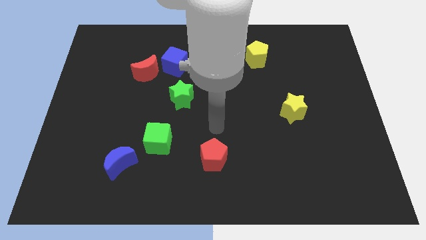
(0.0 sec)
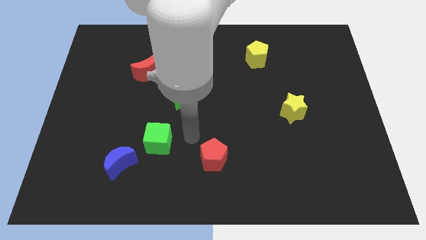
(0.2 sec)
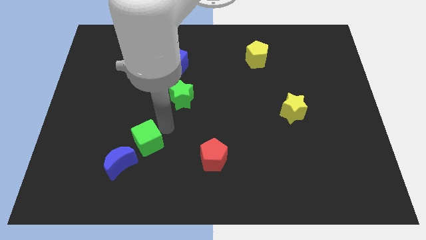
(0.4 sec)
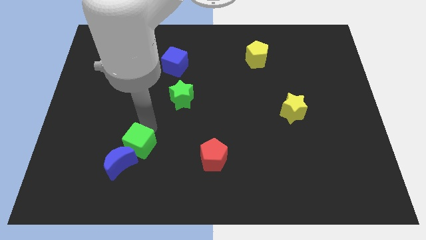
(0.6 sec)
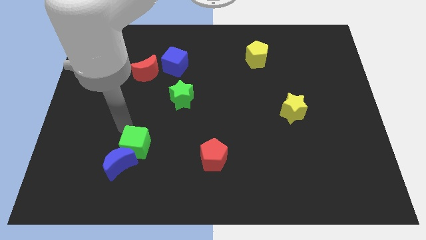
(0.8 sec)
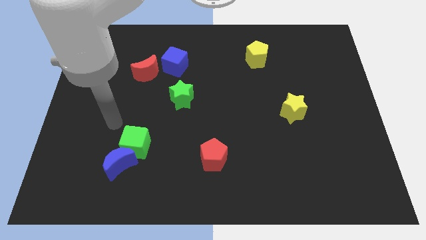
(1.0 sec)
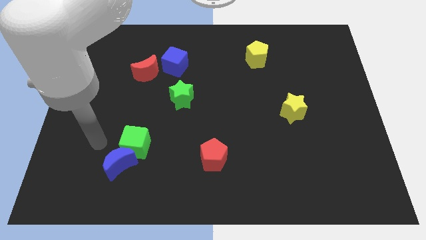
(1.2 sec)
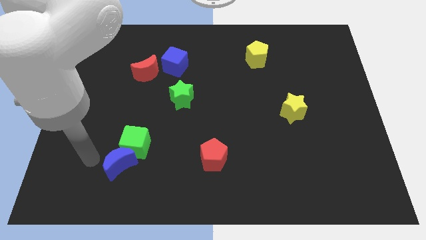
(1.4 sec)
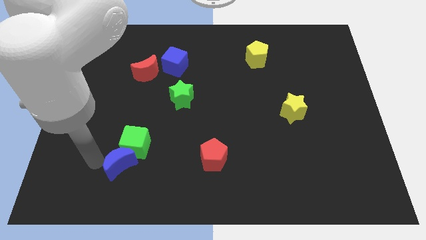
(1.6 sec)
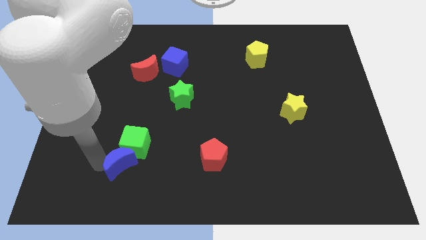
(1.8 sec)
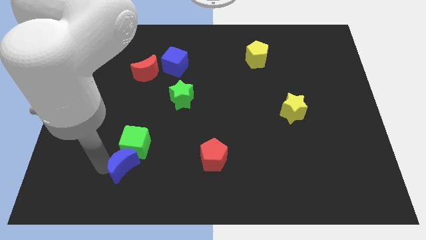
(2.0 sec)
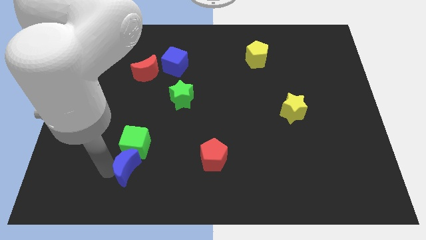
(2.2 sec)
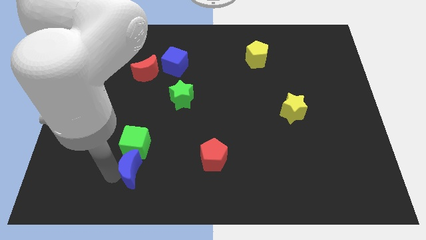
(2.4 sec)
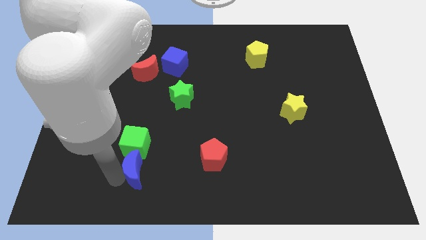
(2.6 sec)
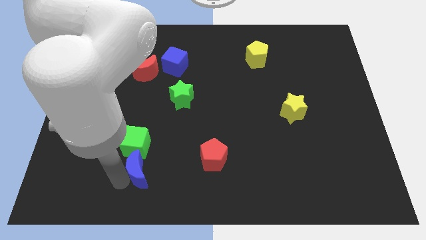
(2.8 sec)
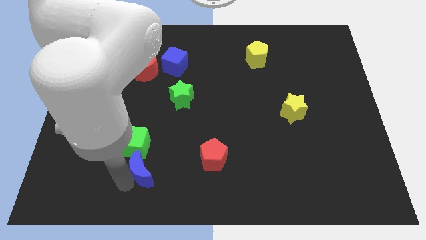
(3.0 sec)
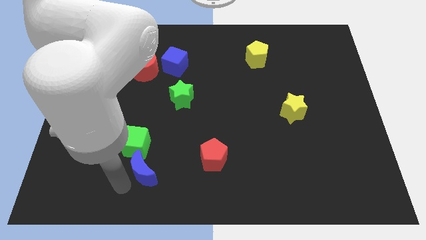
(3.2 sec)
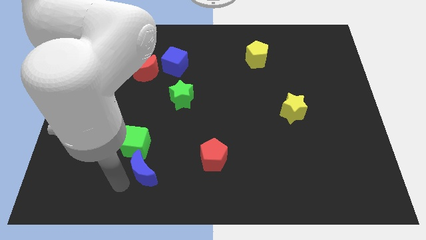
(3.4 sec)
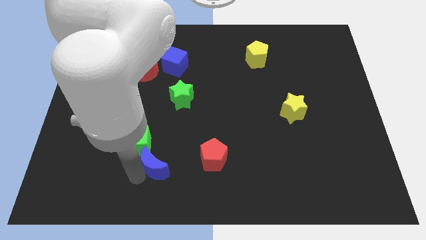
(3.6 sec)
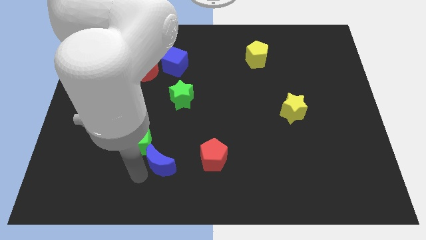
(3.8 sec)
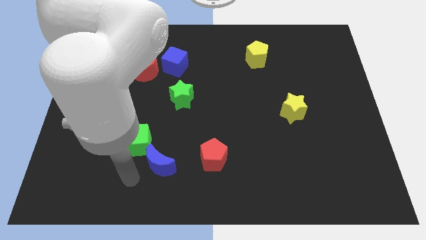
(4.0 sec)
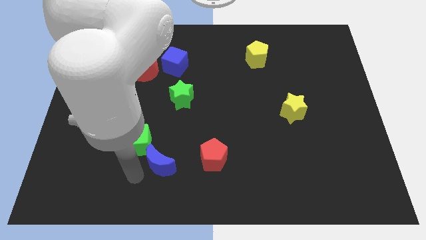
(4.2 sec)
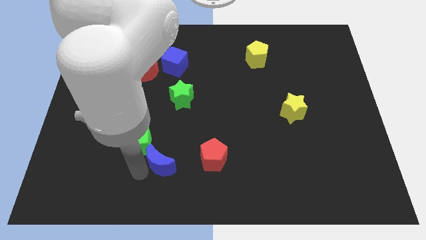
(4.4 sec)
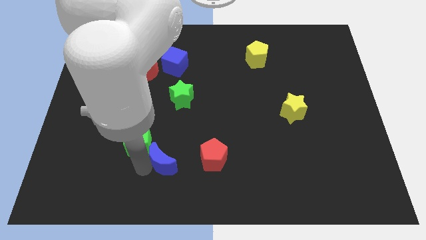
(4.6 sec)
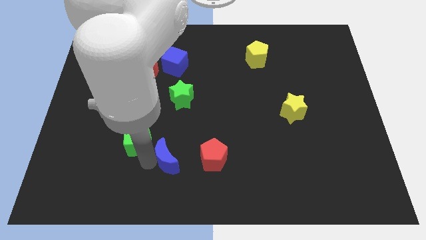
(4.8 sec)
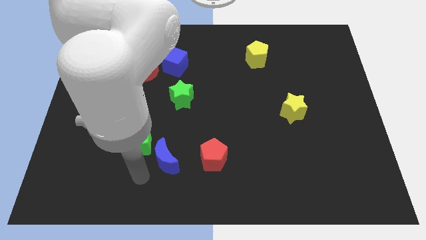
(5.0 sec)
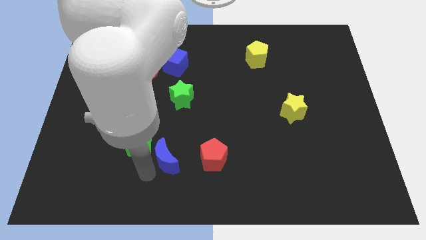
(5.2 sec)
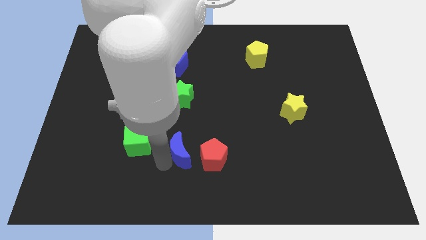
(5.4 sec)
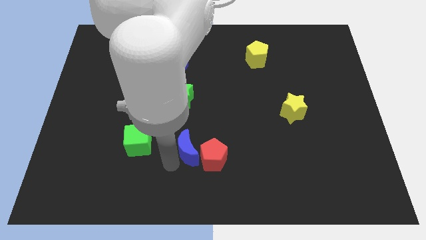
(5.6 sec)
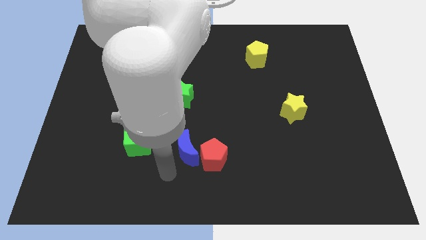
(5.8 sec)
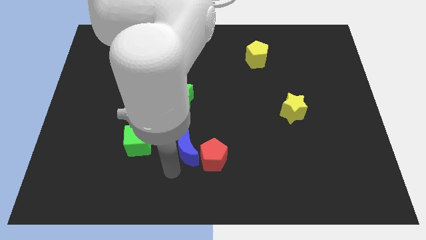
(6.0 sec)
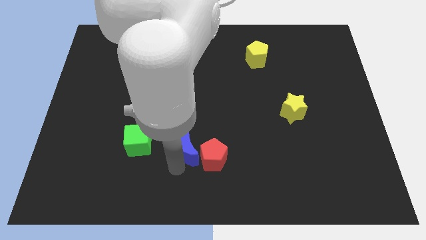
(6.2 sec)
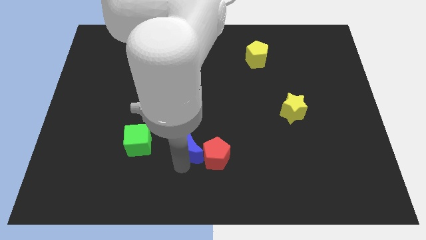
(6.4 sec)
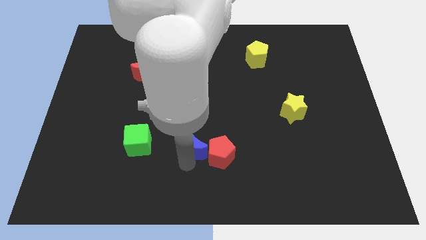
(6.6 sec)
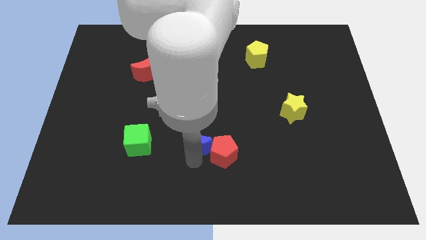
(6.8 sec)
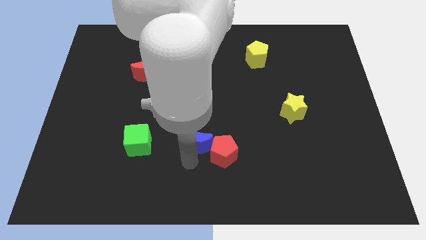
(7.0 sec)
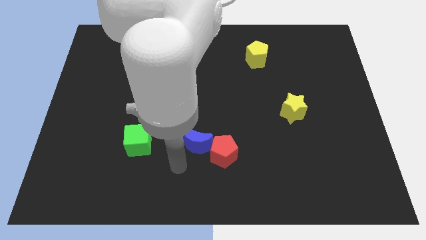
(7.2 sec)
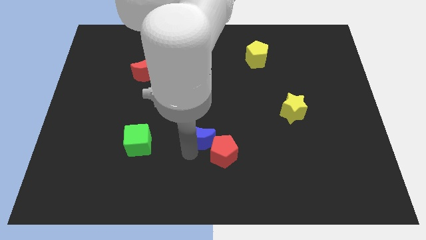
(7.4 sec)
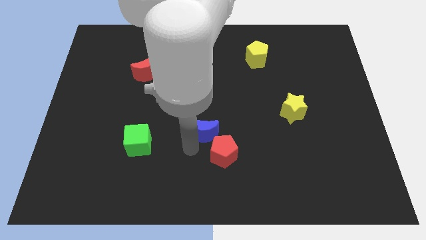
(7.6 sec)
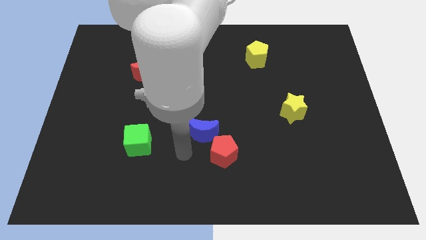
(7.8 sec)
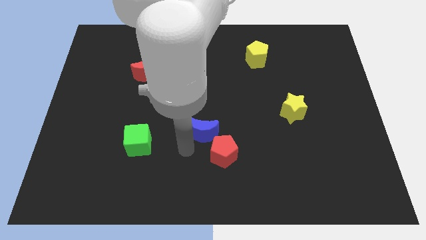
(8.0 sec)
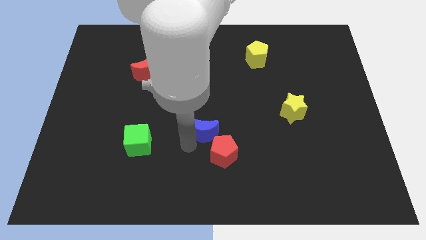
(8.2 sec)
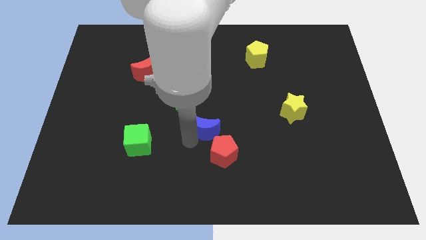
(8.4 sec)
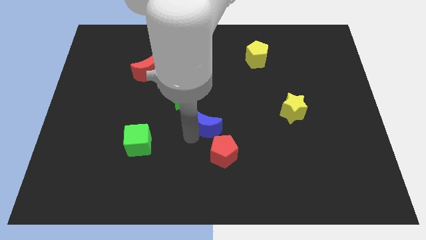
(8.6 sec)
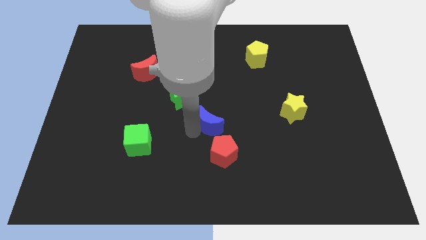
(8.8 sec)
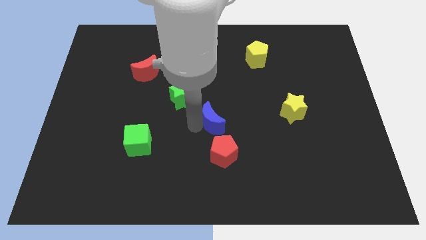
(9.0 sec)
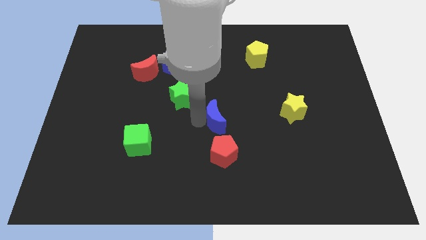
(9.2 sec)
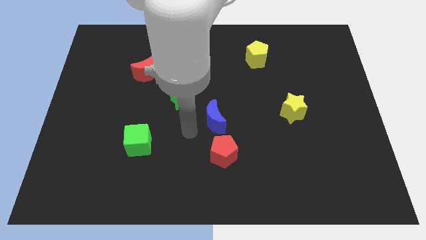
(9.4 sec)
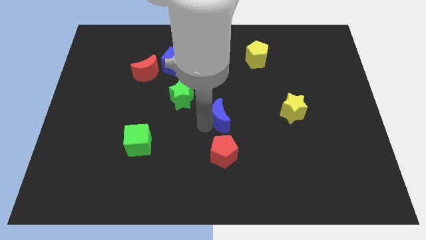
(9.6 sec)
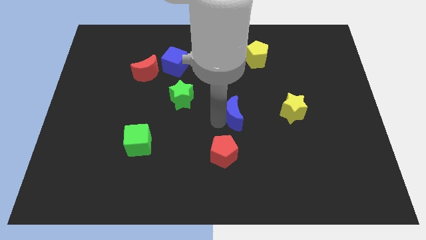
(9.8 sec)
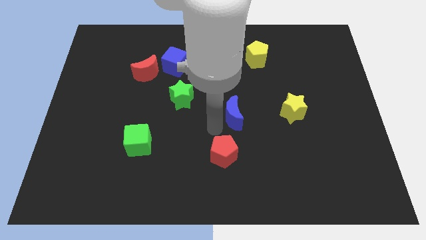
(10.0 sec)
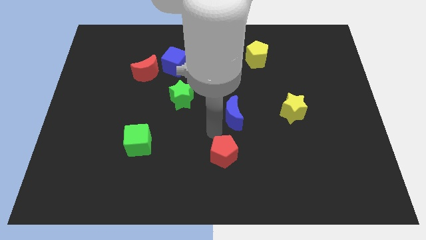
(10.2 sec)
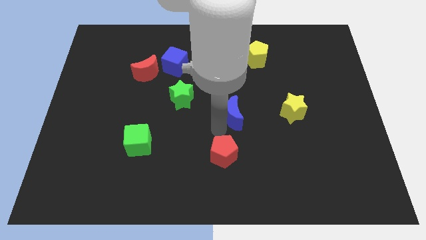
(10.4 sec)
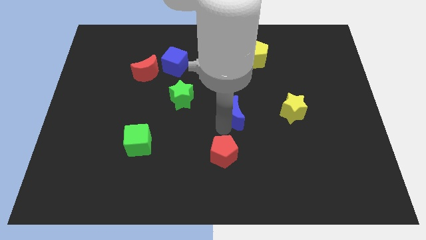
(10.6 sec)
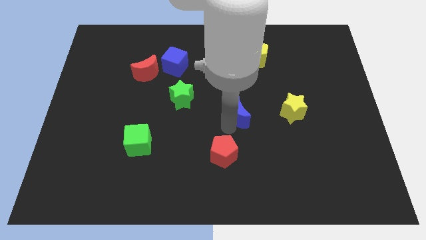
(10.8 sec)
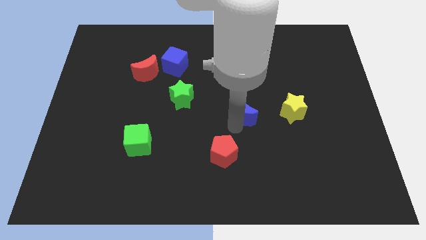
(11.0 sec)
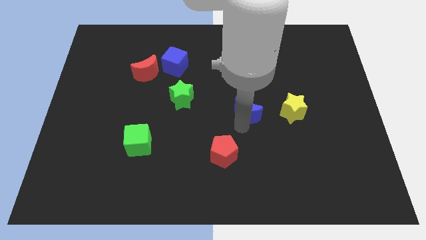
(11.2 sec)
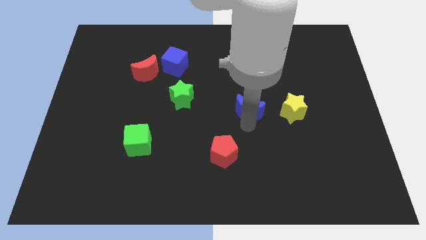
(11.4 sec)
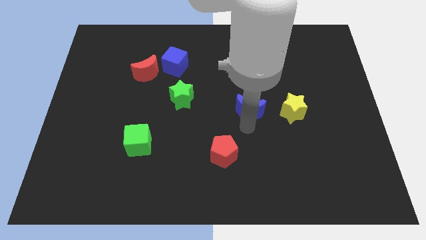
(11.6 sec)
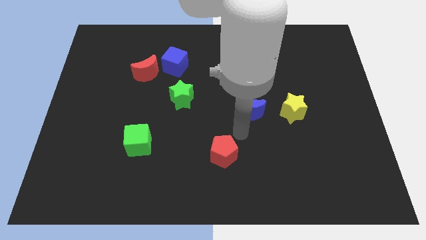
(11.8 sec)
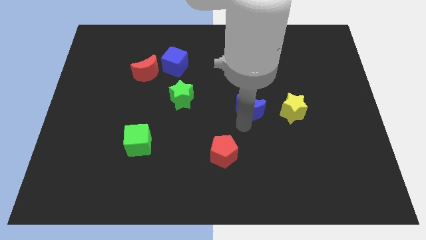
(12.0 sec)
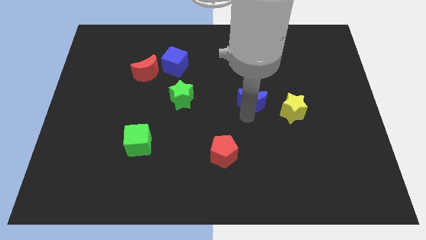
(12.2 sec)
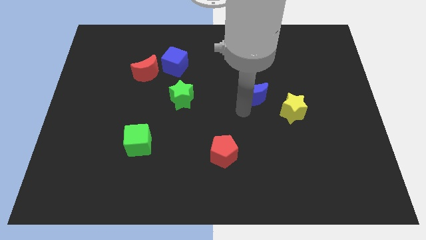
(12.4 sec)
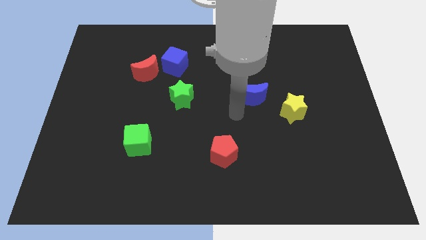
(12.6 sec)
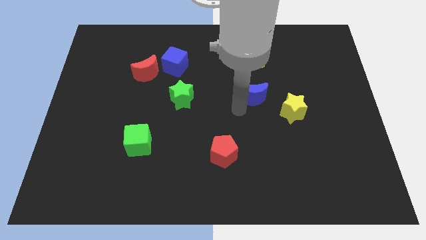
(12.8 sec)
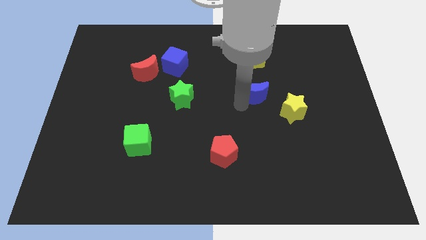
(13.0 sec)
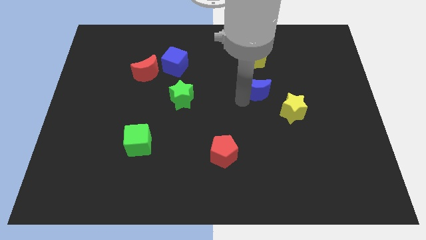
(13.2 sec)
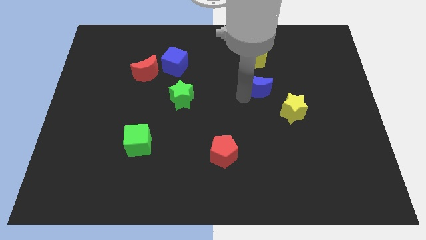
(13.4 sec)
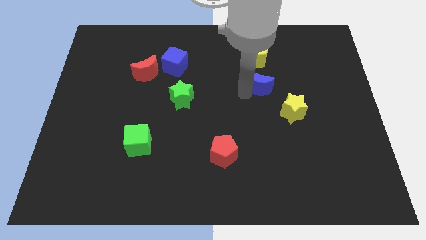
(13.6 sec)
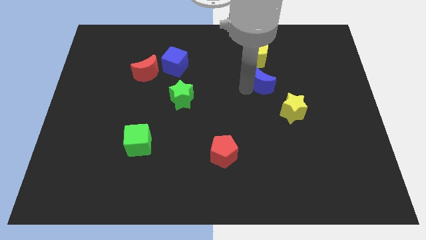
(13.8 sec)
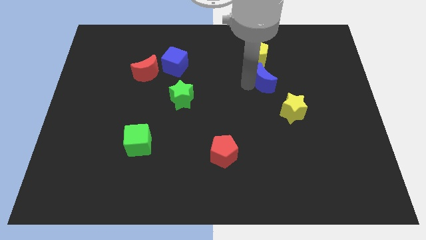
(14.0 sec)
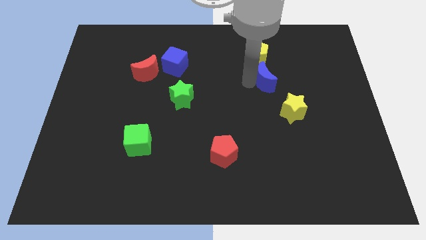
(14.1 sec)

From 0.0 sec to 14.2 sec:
slide the blue moon diagonally down and to the right of the yellow pentagon
